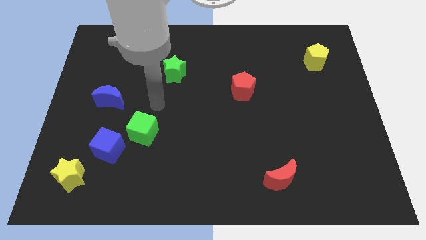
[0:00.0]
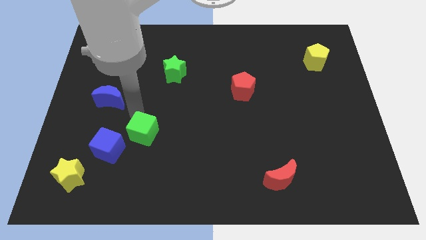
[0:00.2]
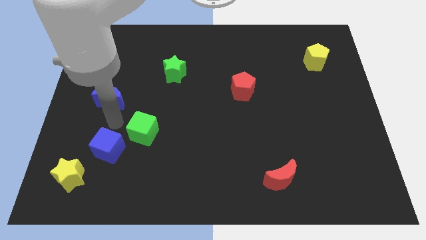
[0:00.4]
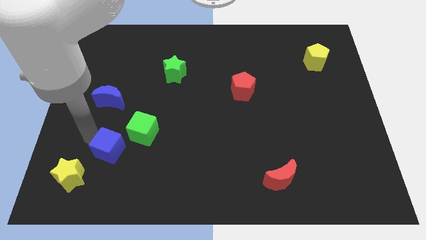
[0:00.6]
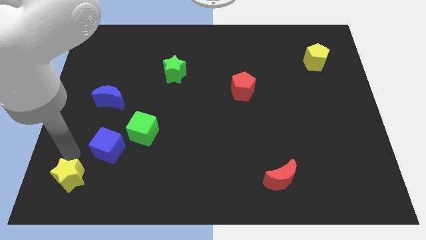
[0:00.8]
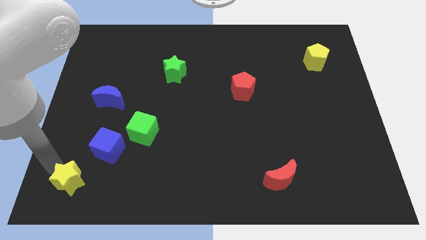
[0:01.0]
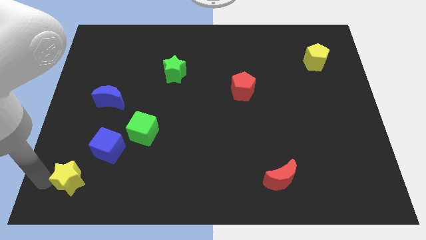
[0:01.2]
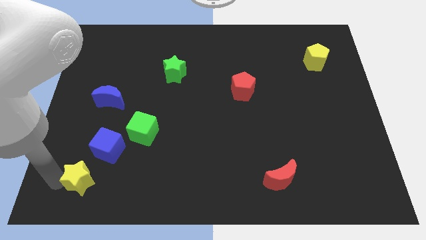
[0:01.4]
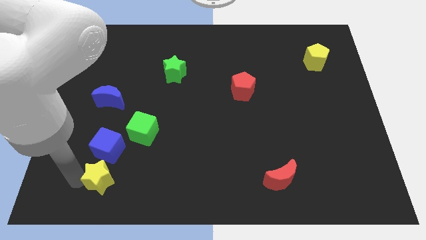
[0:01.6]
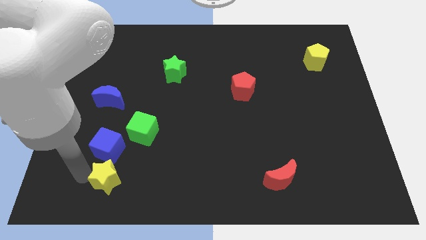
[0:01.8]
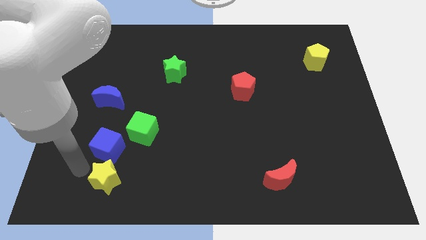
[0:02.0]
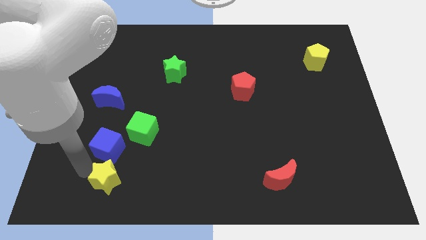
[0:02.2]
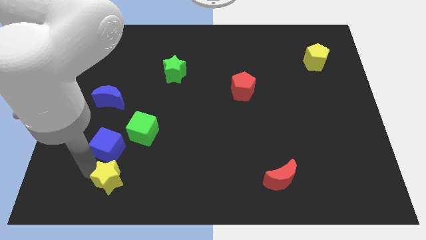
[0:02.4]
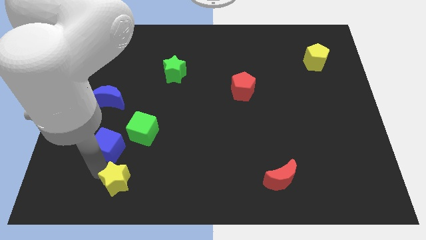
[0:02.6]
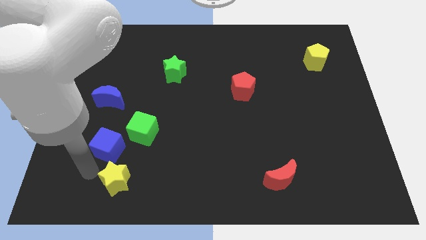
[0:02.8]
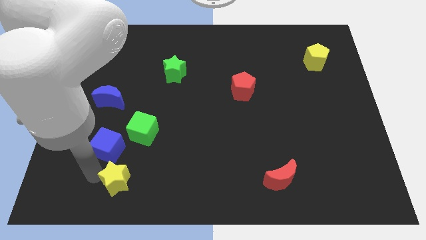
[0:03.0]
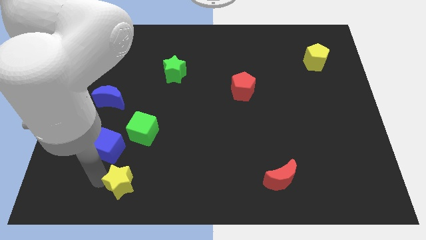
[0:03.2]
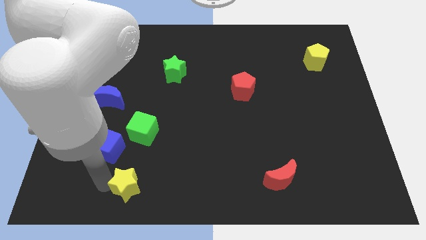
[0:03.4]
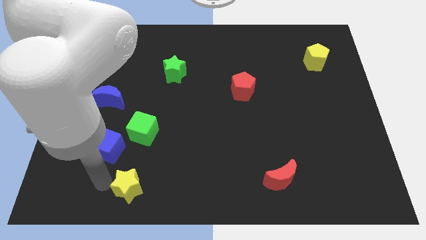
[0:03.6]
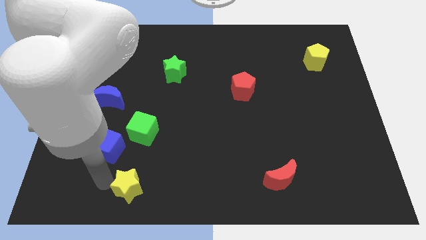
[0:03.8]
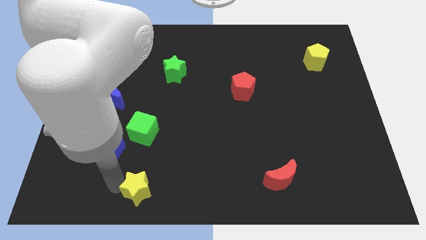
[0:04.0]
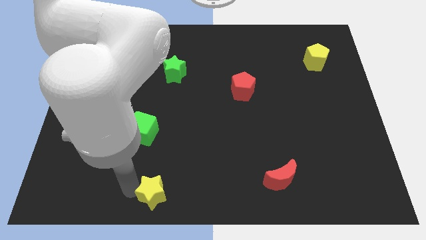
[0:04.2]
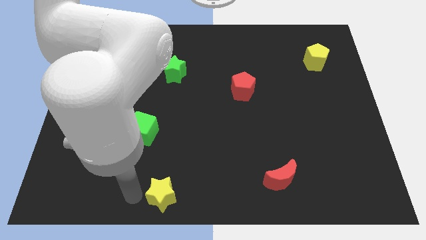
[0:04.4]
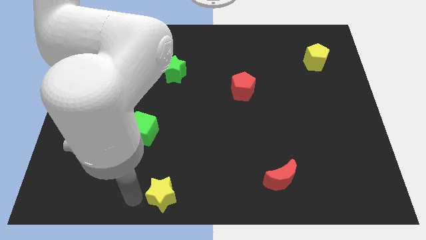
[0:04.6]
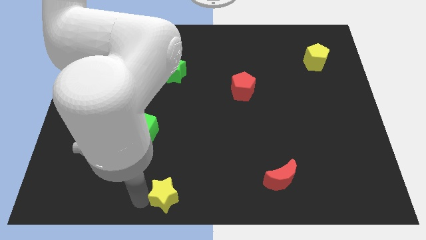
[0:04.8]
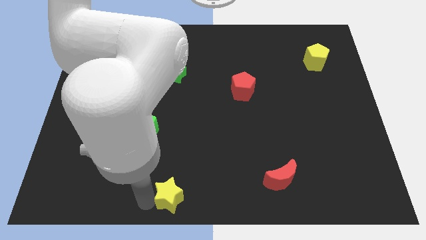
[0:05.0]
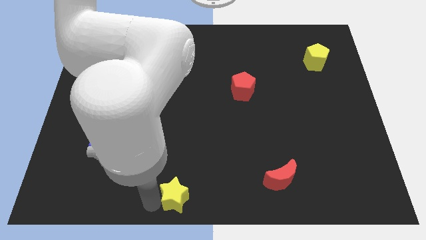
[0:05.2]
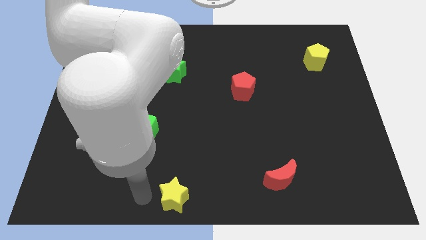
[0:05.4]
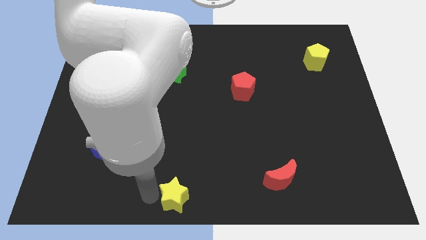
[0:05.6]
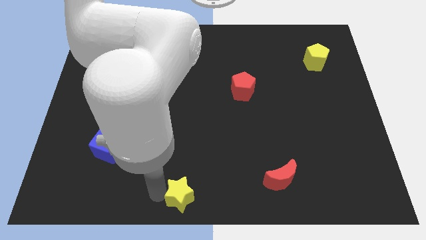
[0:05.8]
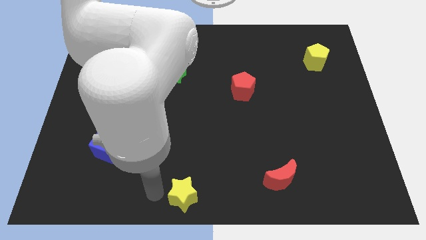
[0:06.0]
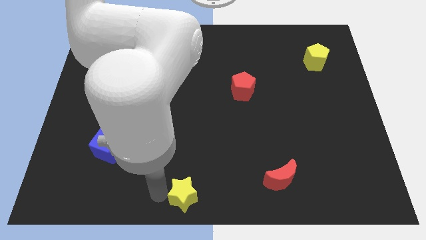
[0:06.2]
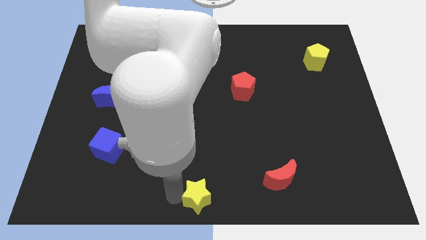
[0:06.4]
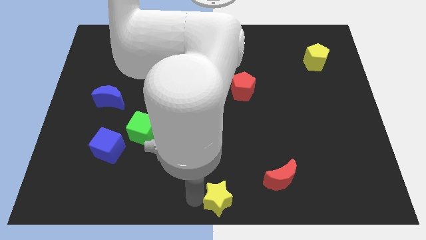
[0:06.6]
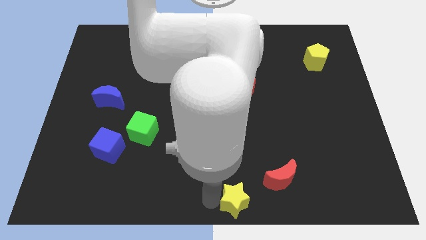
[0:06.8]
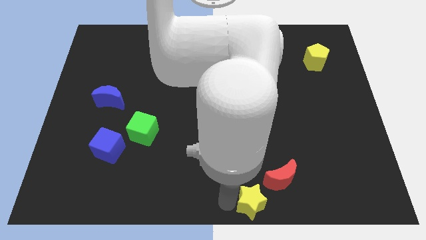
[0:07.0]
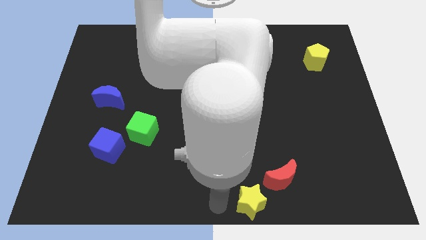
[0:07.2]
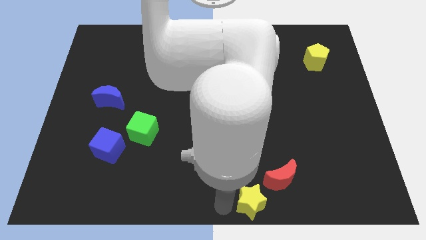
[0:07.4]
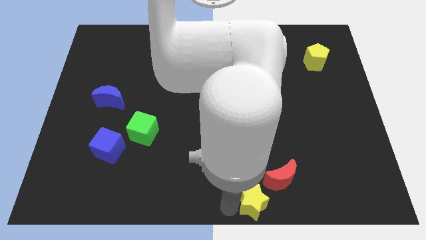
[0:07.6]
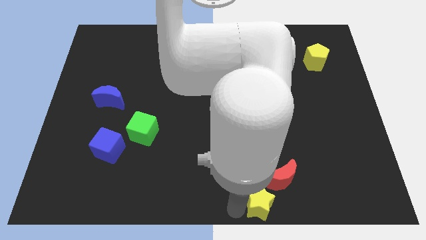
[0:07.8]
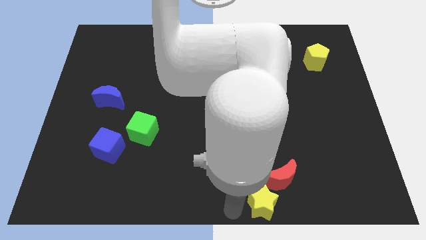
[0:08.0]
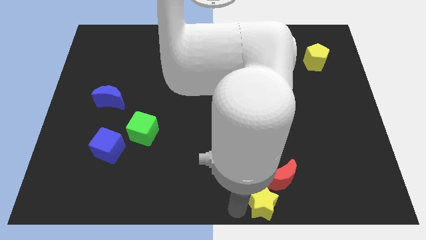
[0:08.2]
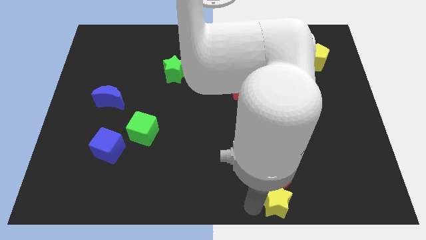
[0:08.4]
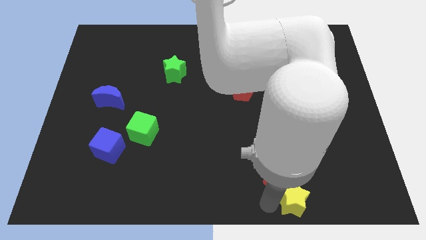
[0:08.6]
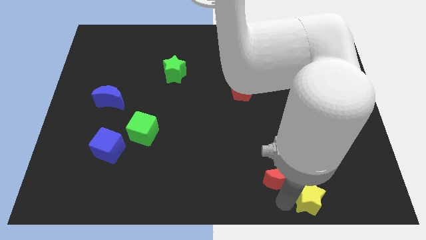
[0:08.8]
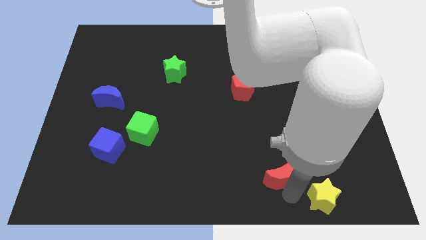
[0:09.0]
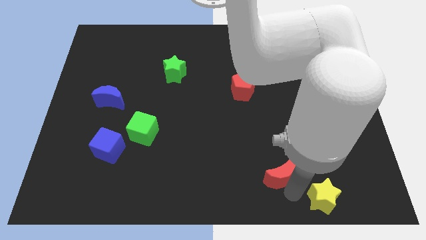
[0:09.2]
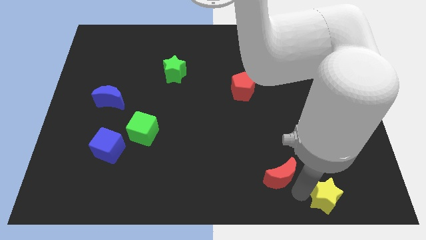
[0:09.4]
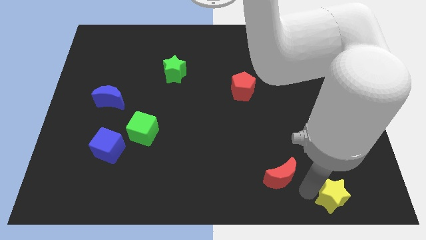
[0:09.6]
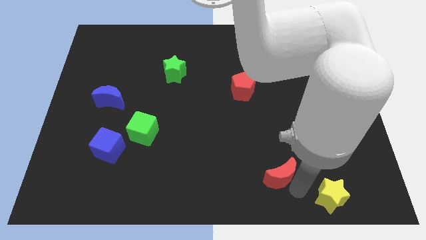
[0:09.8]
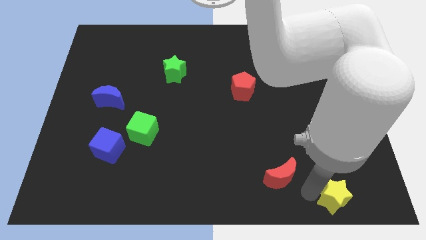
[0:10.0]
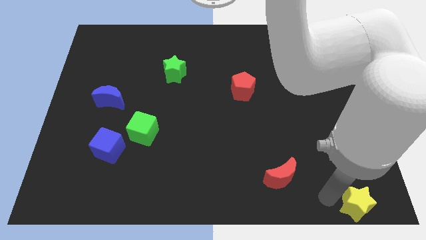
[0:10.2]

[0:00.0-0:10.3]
move the yellow star to the bottom right of the board

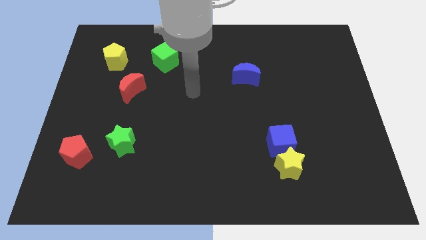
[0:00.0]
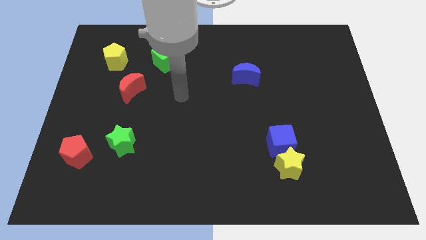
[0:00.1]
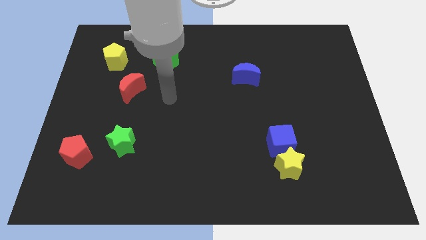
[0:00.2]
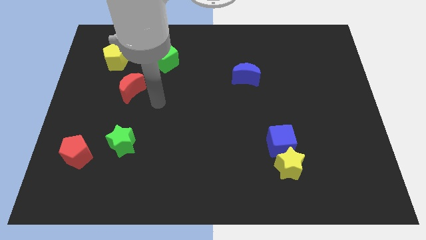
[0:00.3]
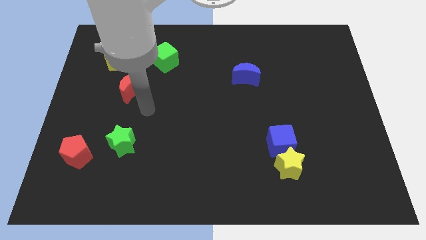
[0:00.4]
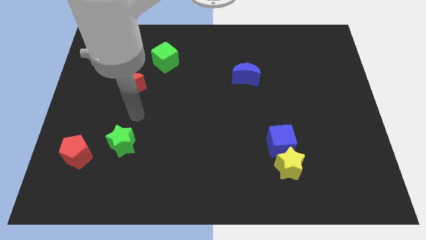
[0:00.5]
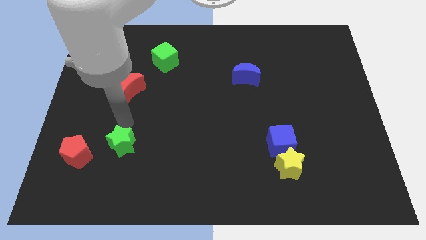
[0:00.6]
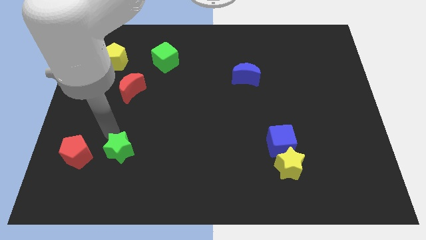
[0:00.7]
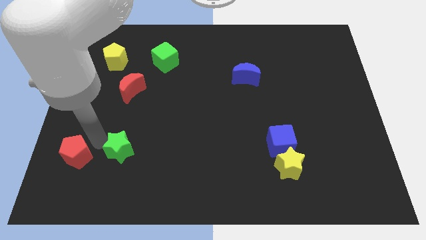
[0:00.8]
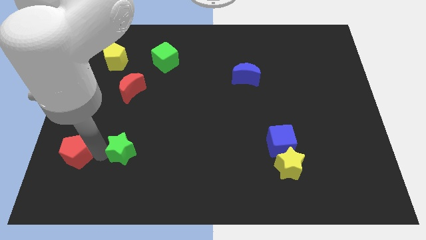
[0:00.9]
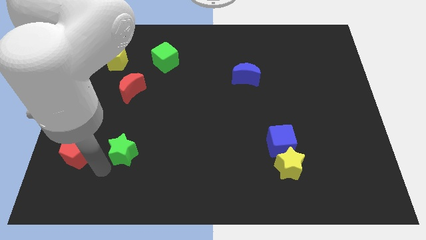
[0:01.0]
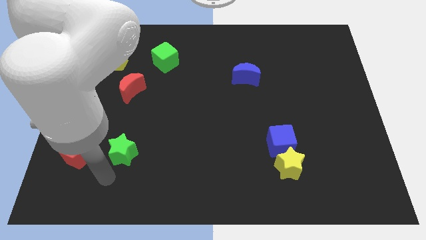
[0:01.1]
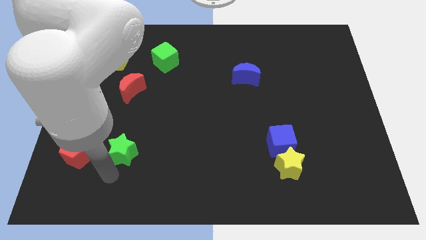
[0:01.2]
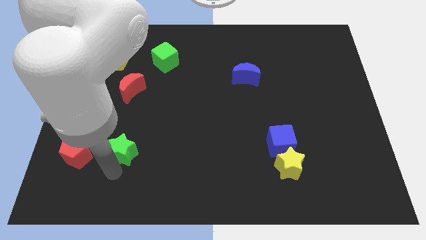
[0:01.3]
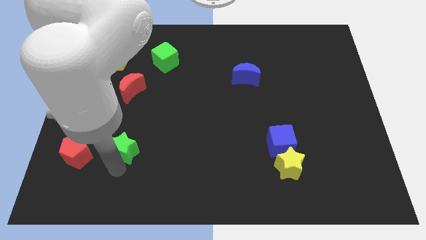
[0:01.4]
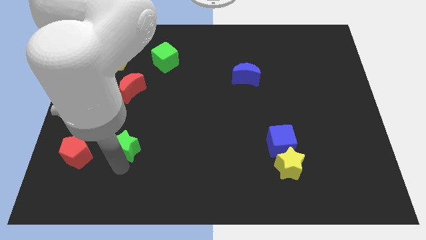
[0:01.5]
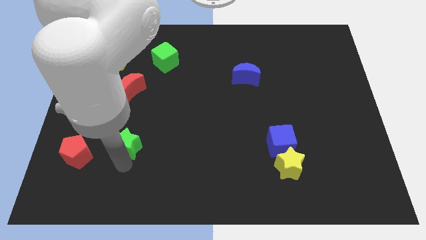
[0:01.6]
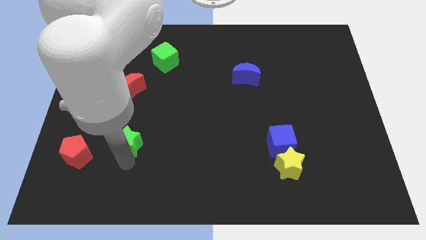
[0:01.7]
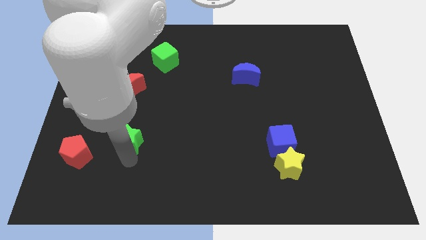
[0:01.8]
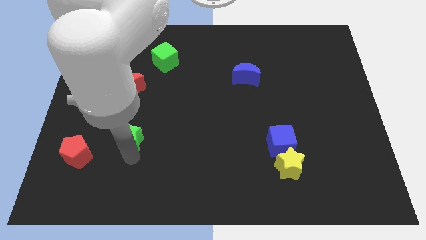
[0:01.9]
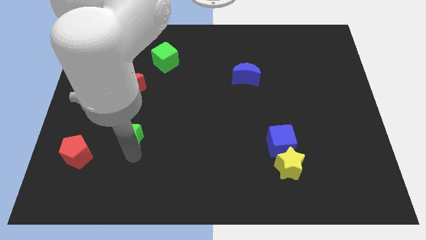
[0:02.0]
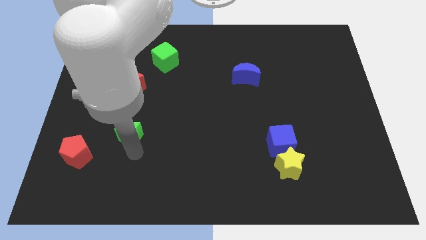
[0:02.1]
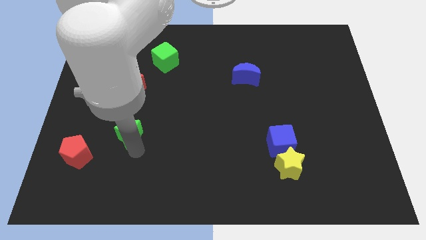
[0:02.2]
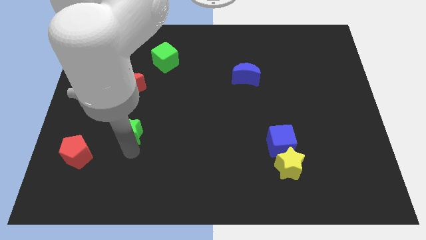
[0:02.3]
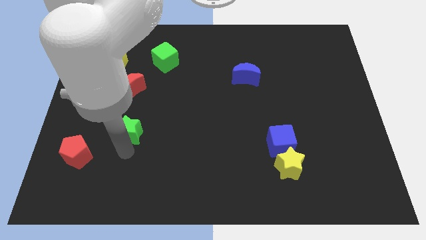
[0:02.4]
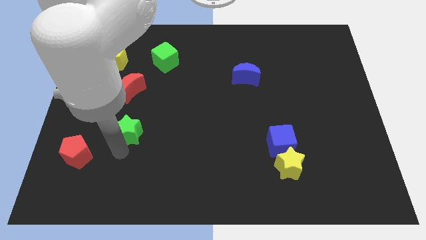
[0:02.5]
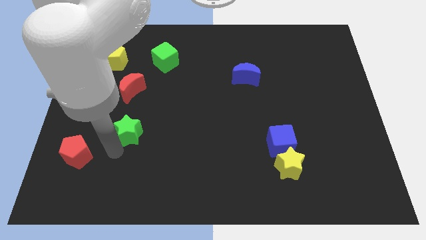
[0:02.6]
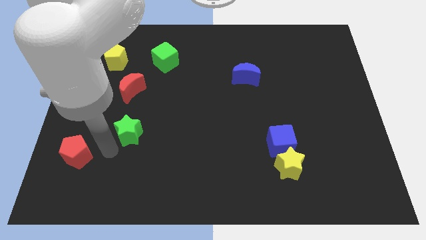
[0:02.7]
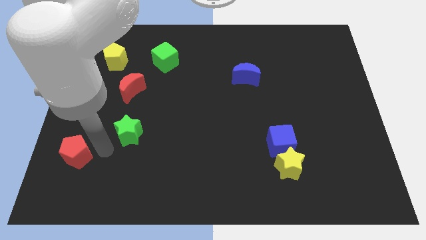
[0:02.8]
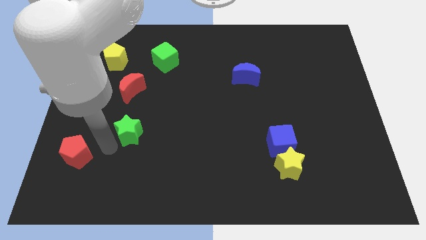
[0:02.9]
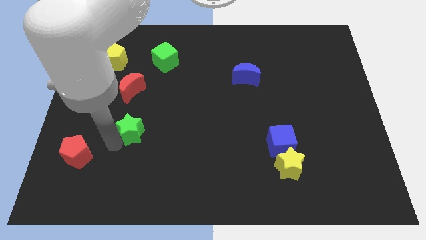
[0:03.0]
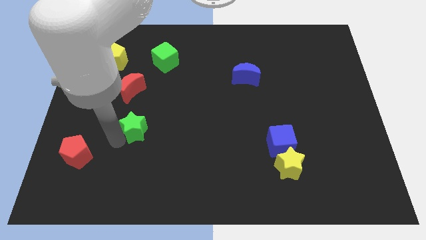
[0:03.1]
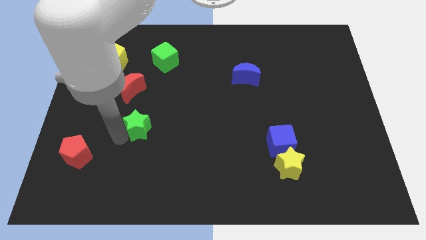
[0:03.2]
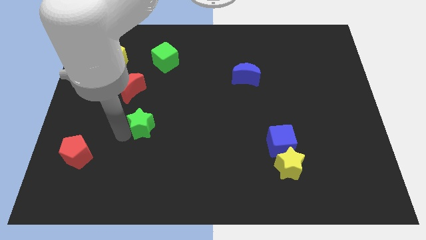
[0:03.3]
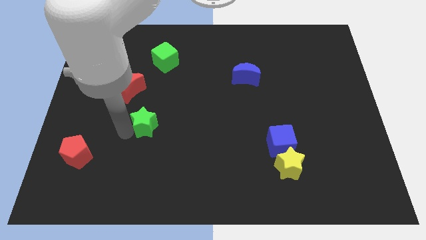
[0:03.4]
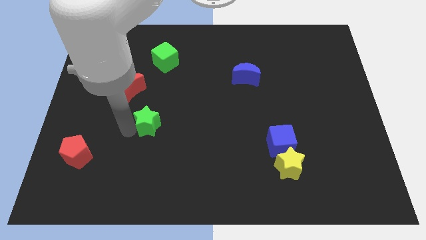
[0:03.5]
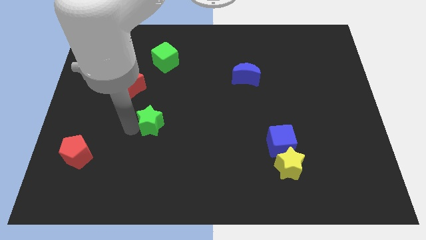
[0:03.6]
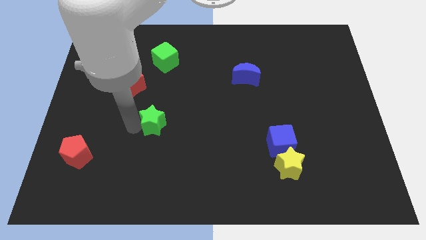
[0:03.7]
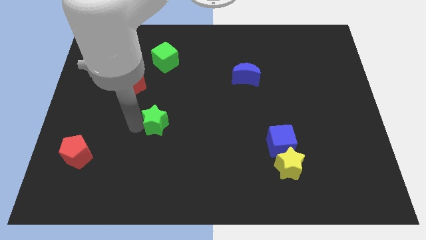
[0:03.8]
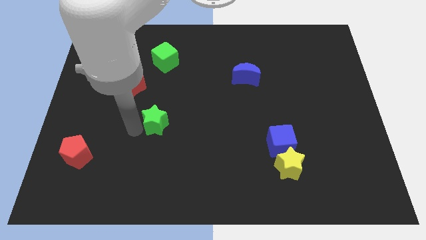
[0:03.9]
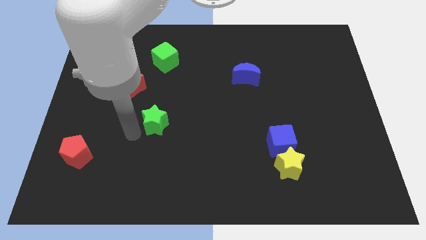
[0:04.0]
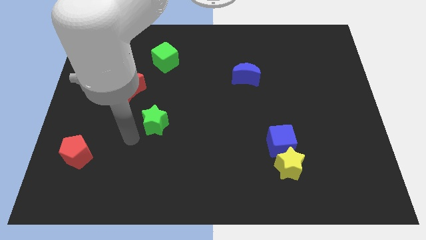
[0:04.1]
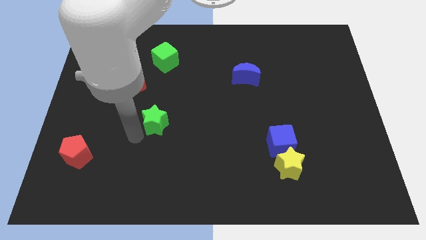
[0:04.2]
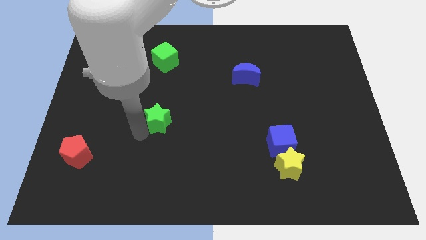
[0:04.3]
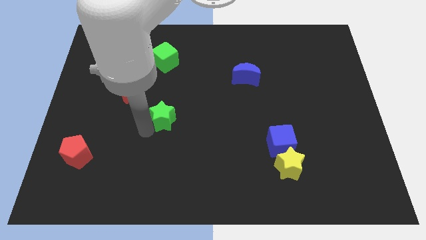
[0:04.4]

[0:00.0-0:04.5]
put the green star to the middle of the board
